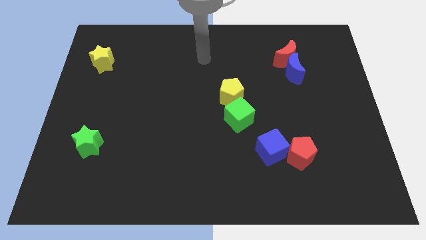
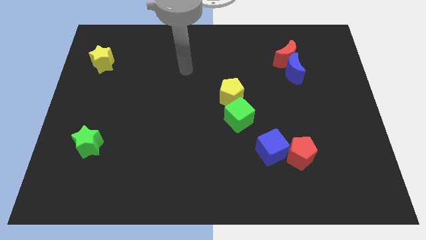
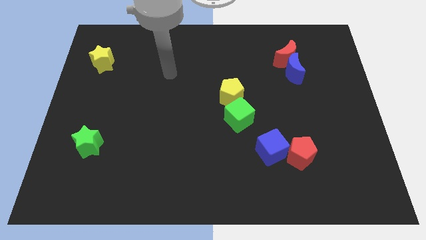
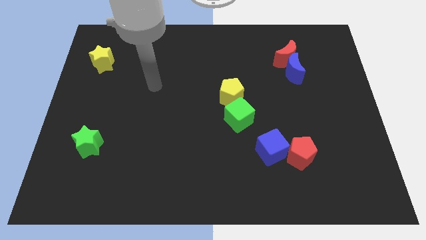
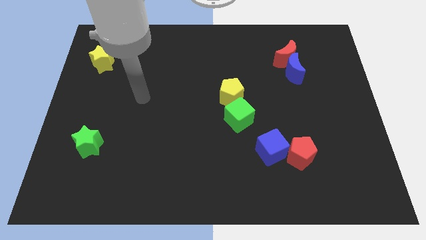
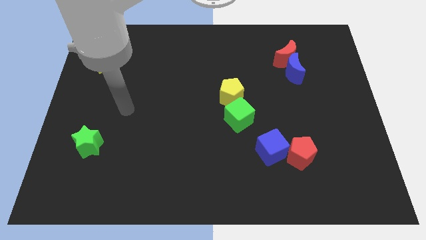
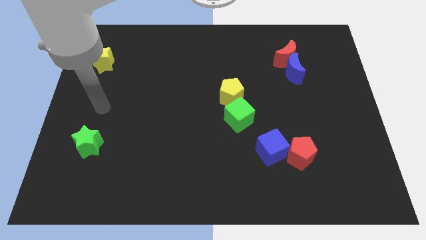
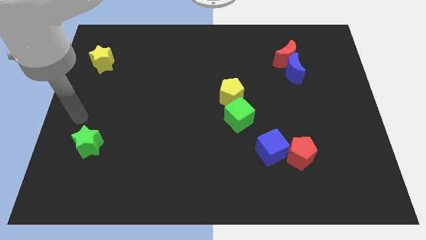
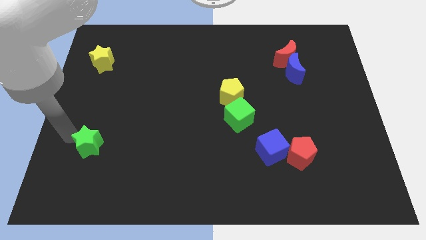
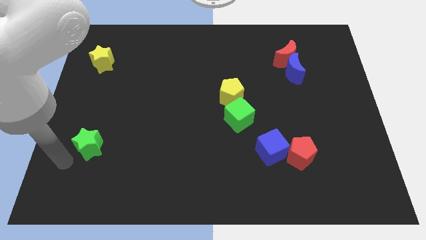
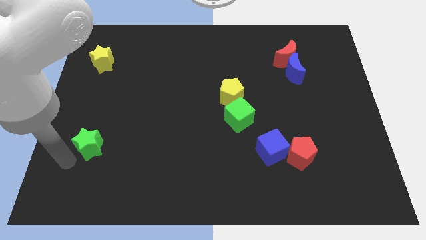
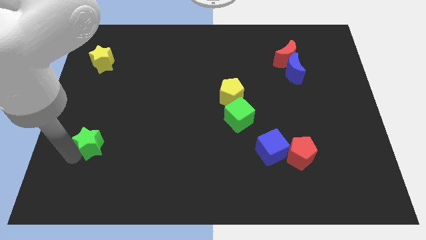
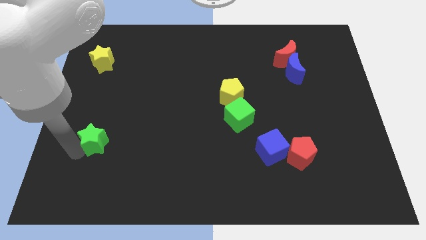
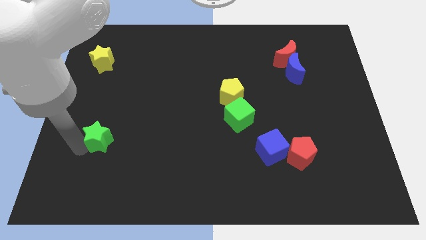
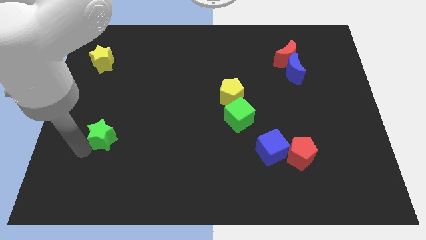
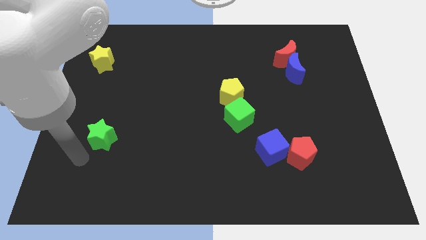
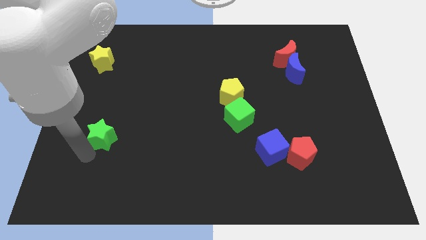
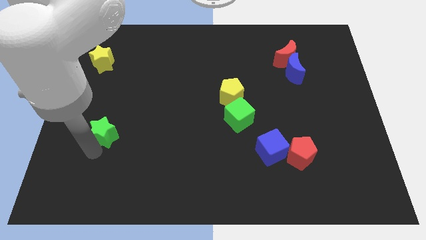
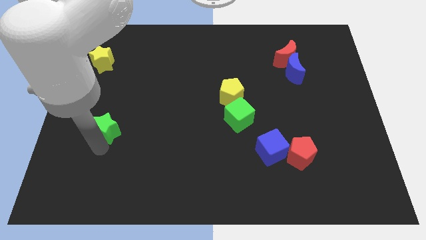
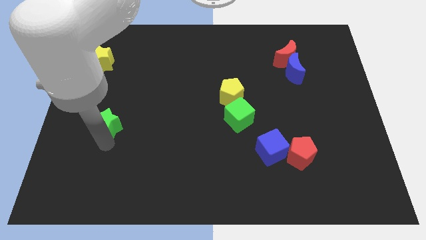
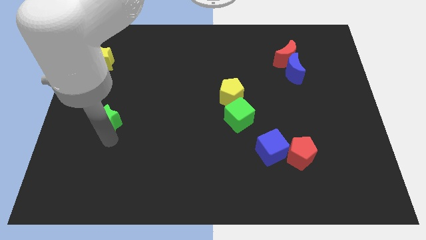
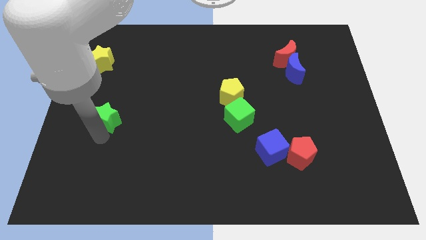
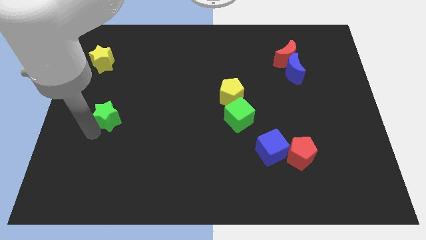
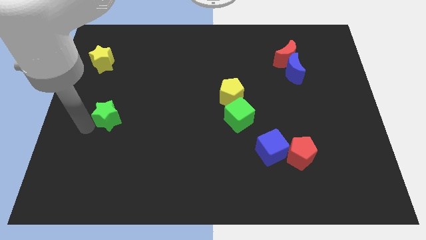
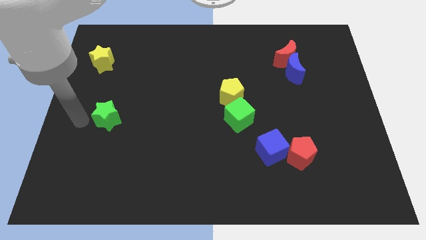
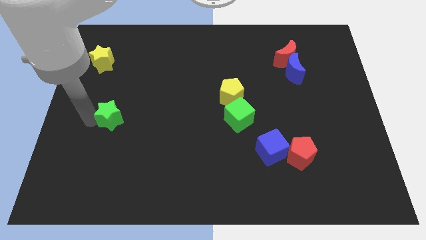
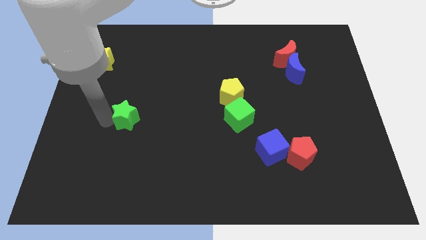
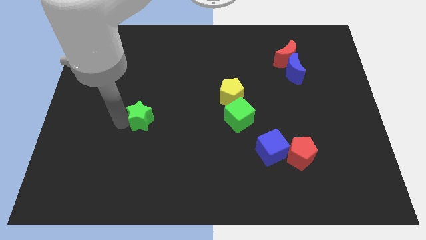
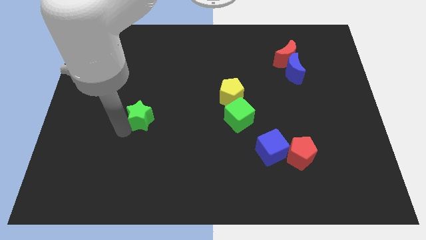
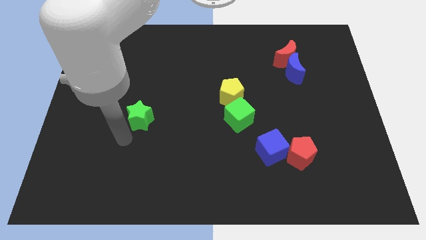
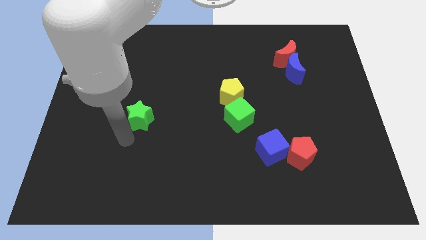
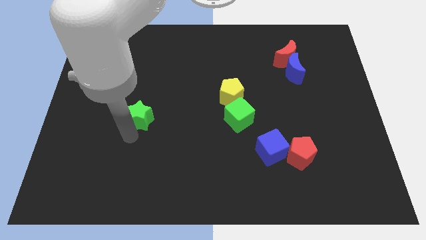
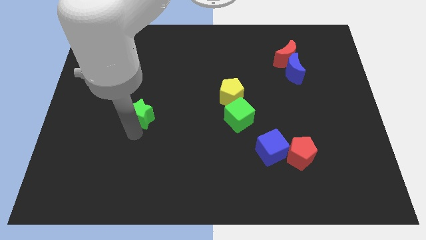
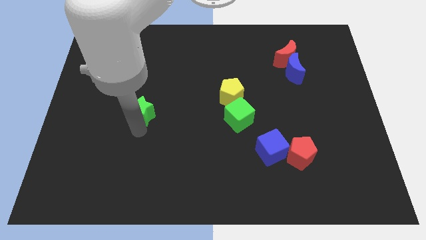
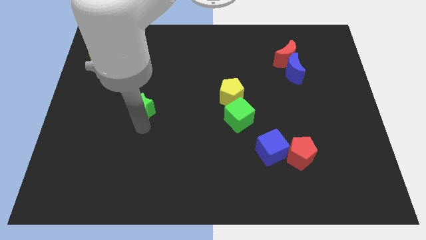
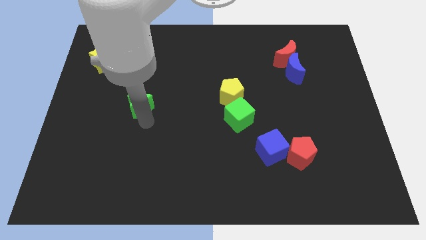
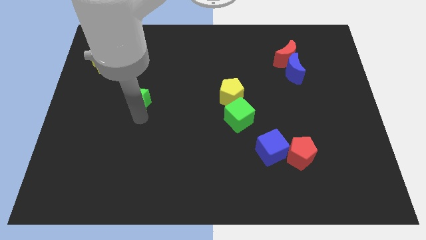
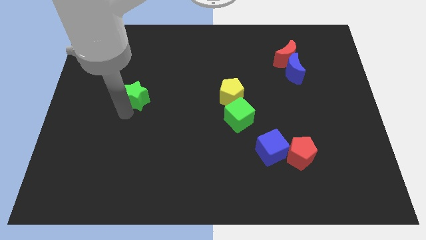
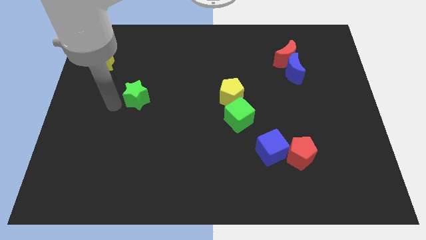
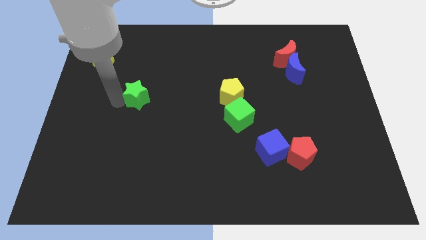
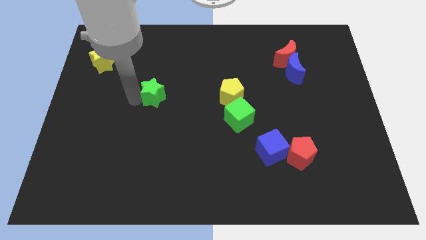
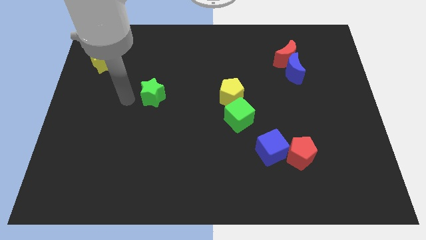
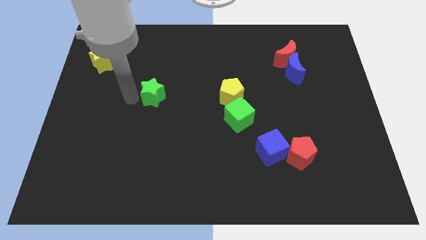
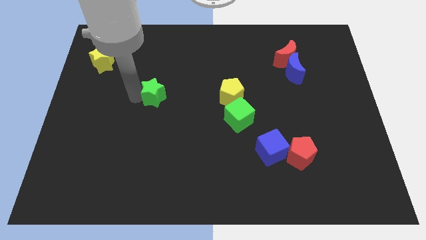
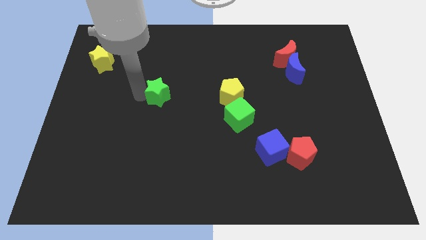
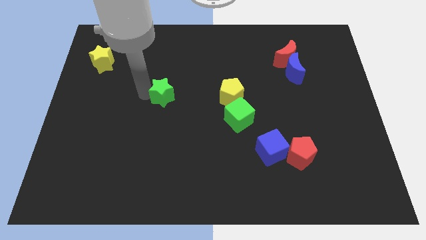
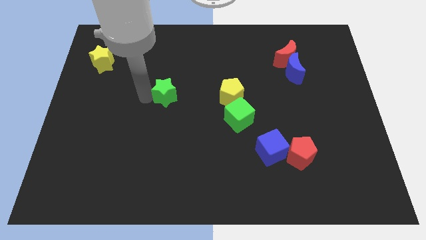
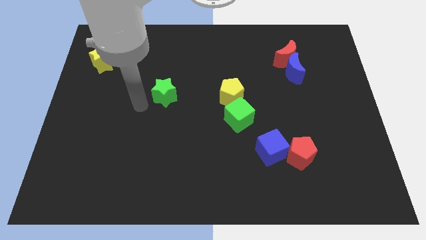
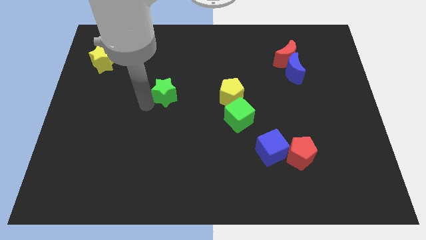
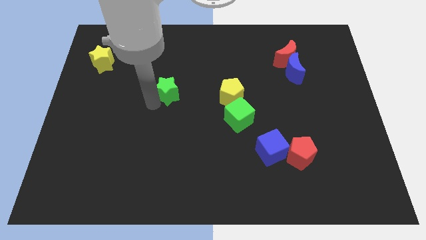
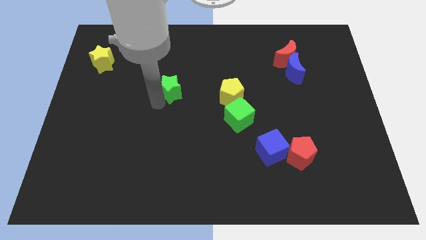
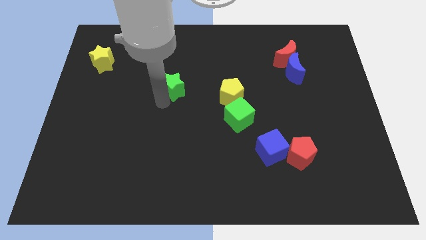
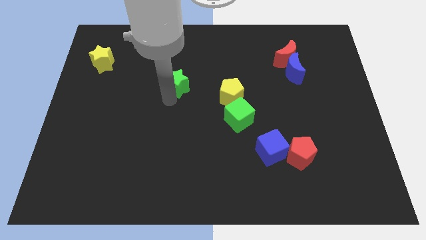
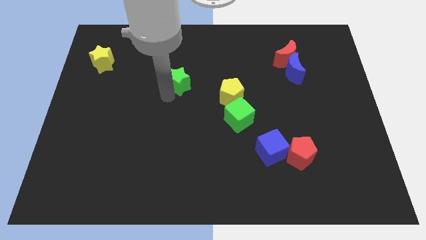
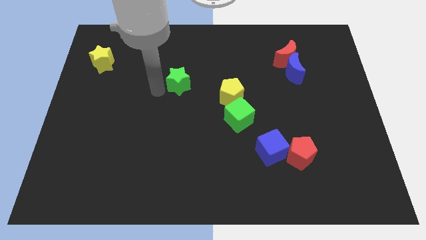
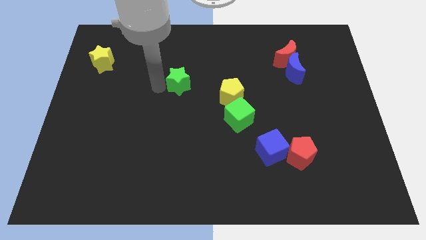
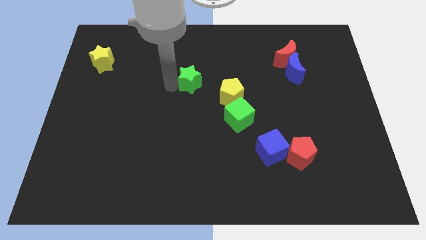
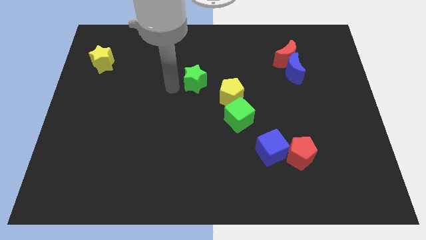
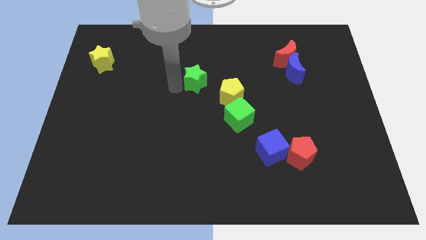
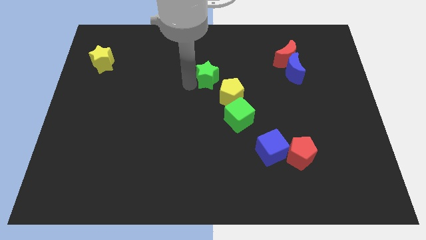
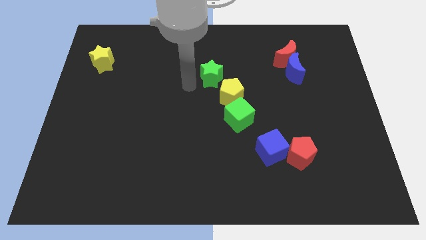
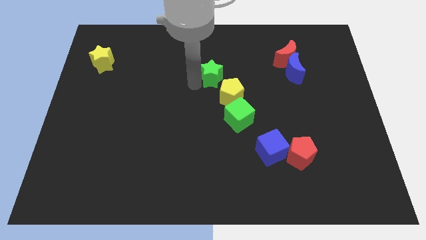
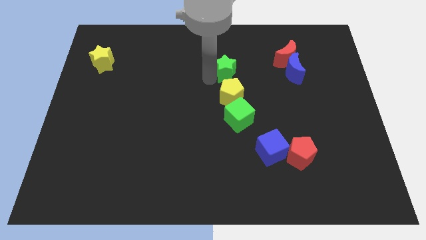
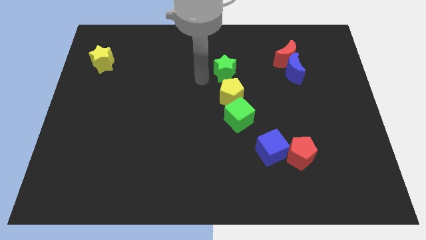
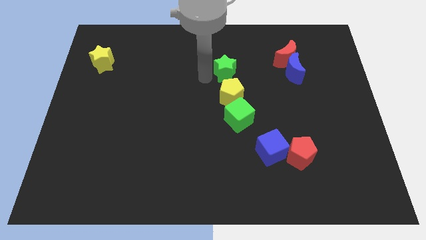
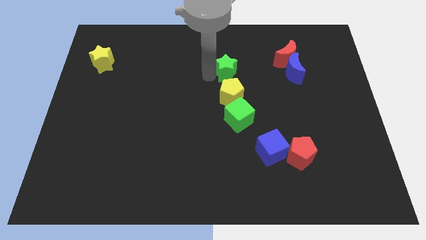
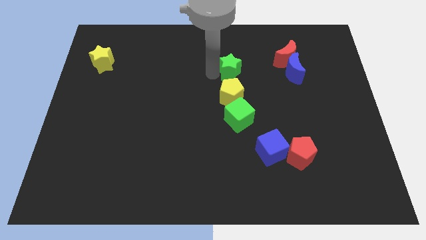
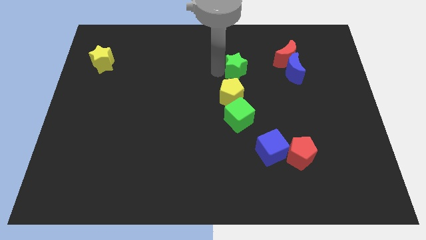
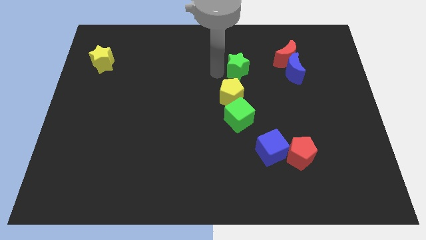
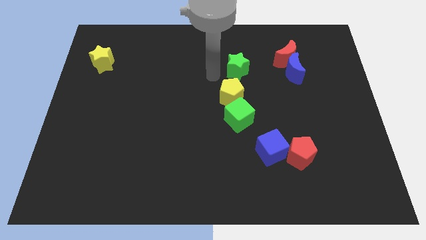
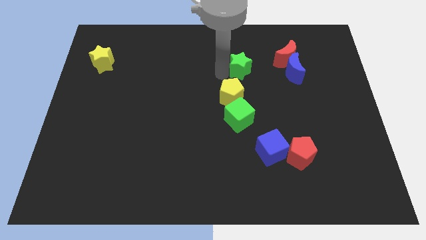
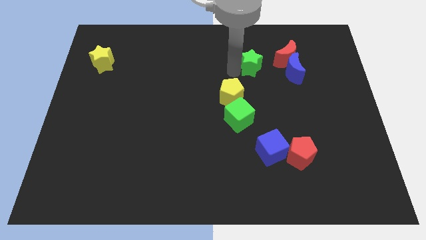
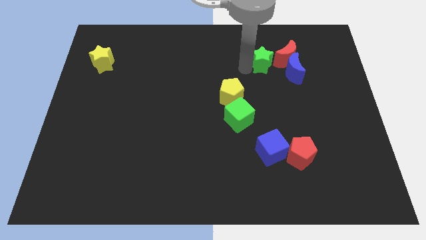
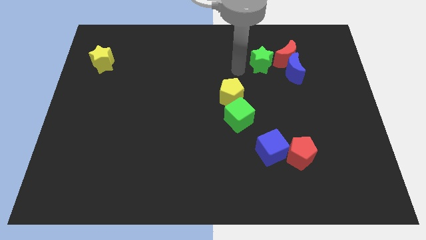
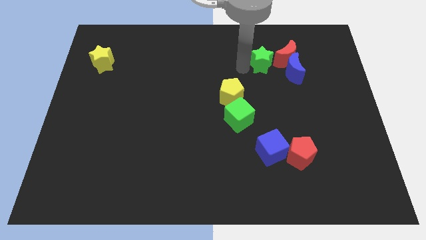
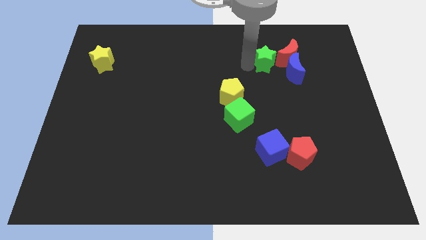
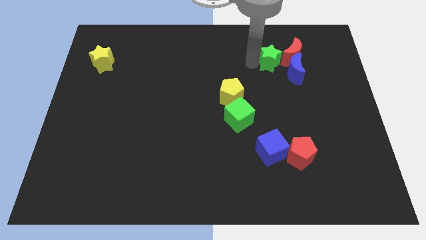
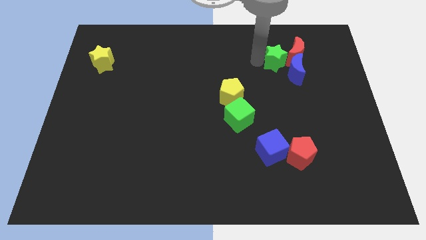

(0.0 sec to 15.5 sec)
slide the green star to the red moon
